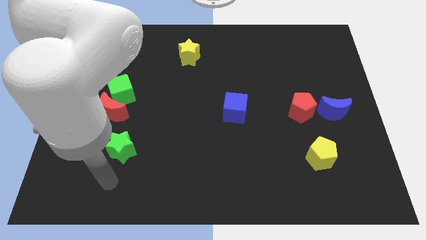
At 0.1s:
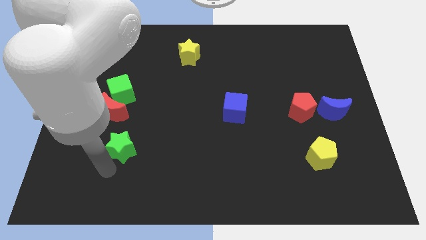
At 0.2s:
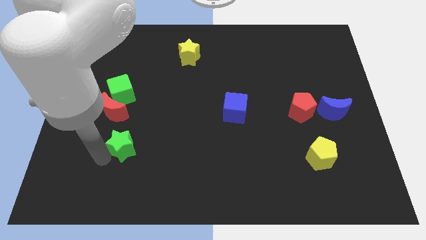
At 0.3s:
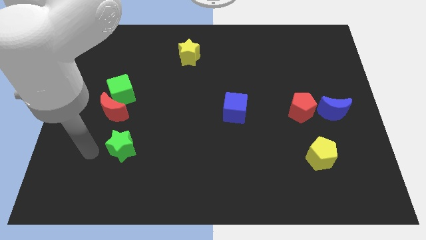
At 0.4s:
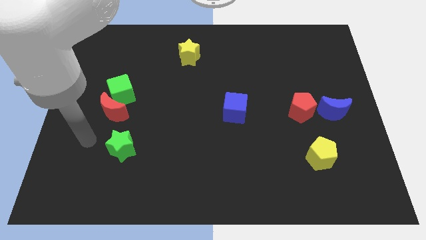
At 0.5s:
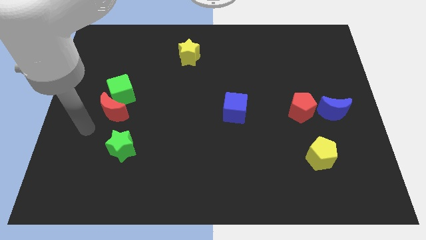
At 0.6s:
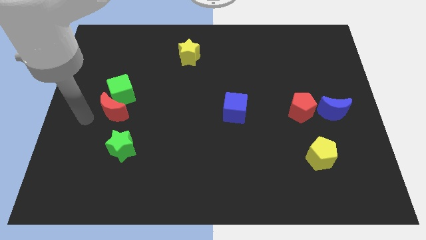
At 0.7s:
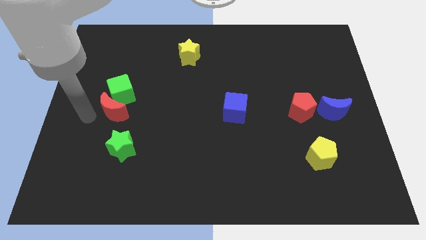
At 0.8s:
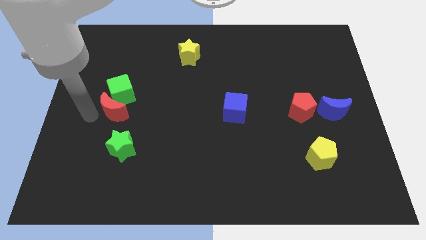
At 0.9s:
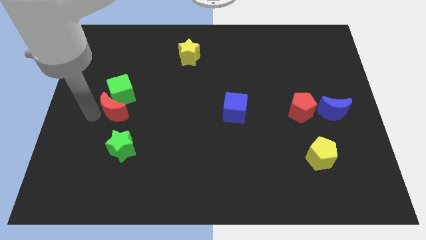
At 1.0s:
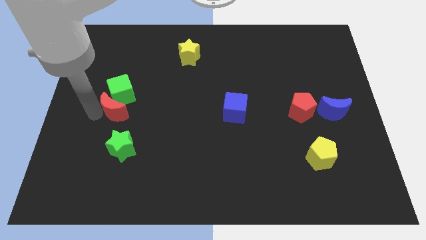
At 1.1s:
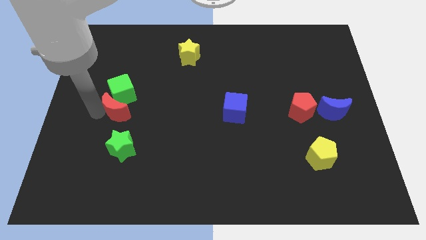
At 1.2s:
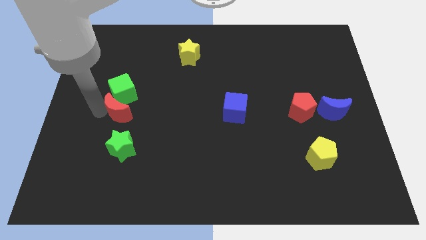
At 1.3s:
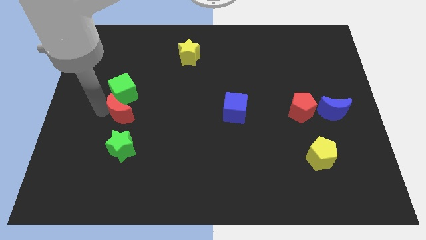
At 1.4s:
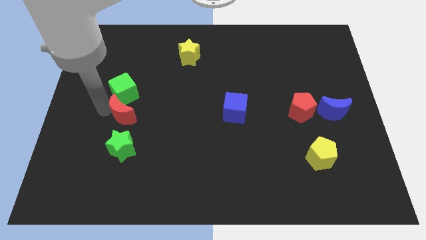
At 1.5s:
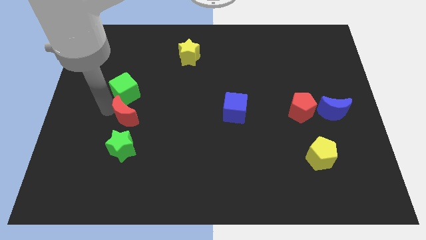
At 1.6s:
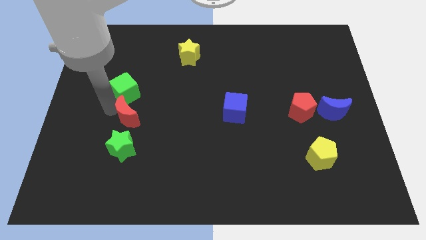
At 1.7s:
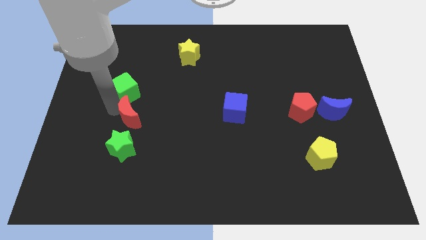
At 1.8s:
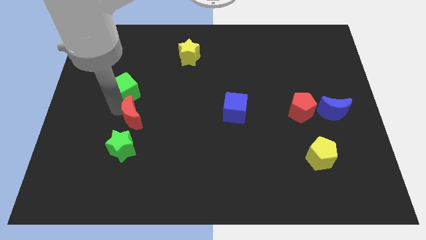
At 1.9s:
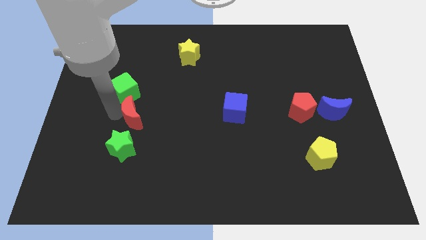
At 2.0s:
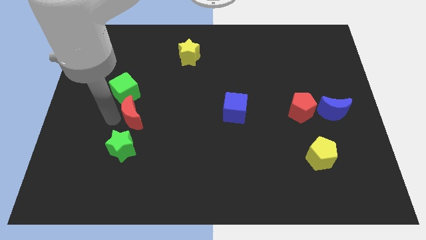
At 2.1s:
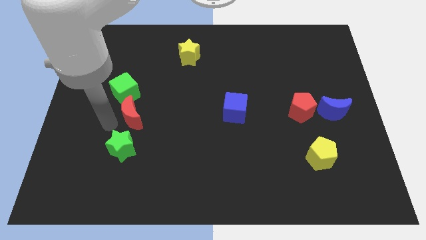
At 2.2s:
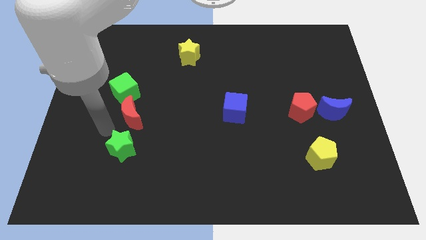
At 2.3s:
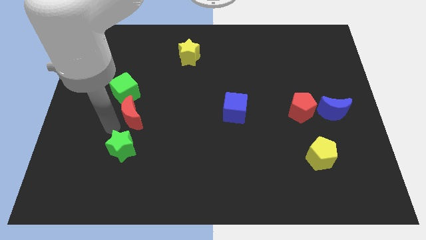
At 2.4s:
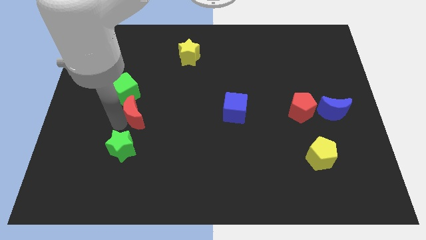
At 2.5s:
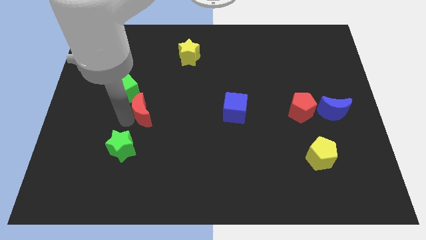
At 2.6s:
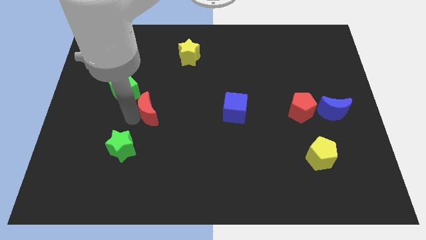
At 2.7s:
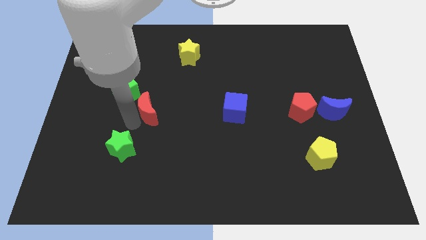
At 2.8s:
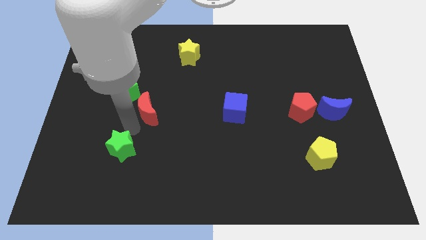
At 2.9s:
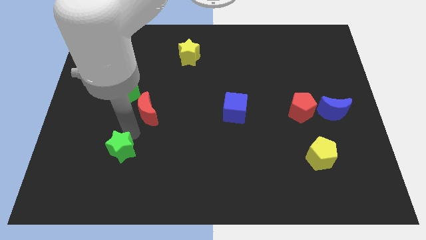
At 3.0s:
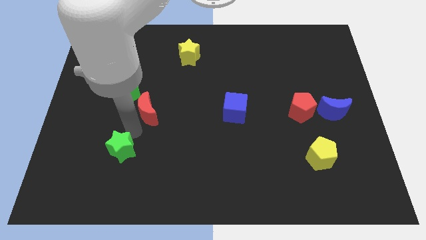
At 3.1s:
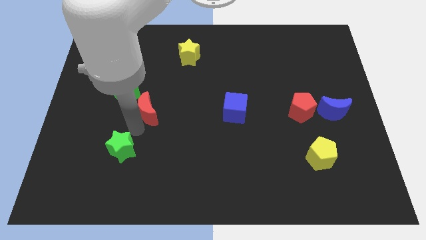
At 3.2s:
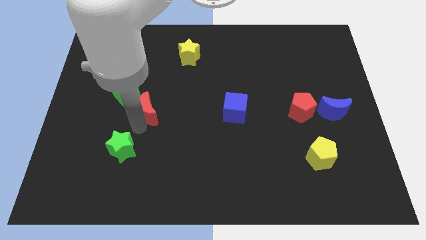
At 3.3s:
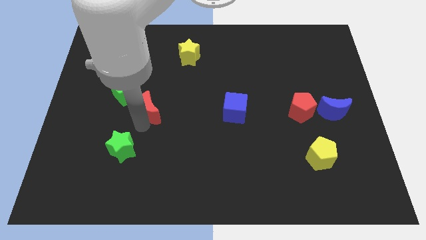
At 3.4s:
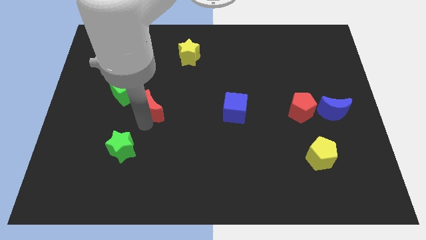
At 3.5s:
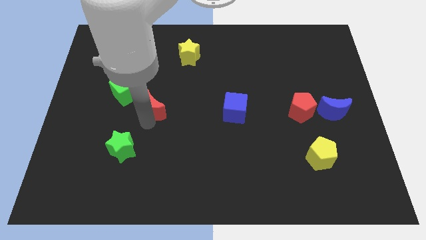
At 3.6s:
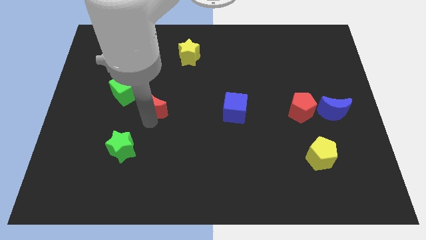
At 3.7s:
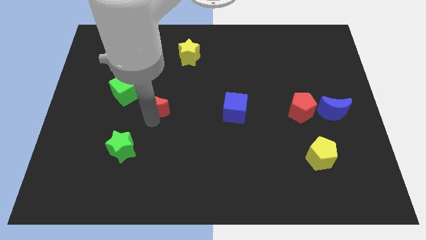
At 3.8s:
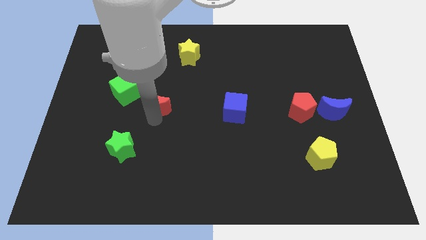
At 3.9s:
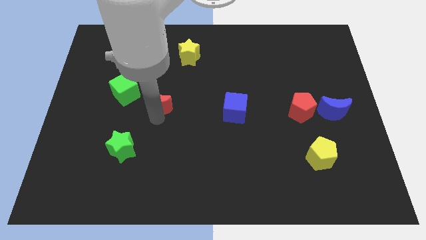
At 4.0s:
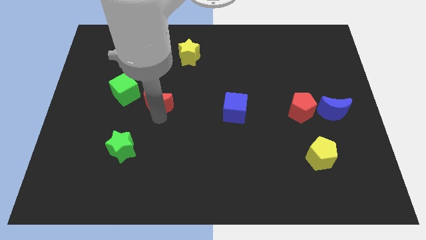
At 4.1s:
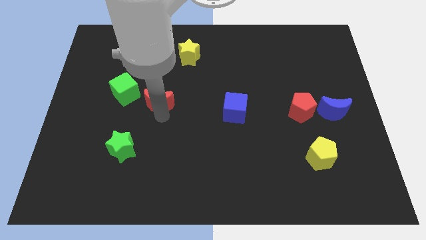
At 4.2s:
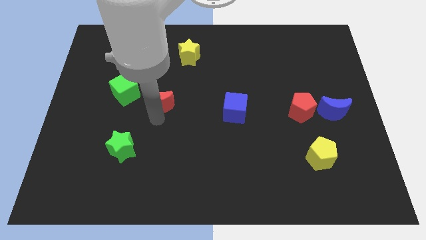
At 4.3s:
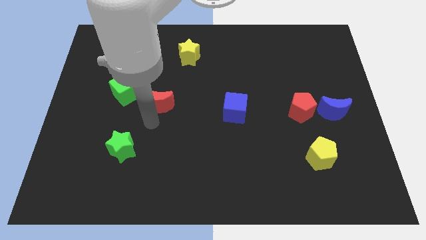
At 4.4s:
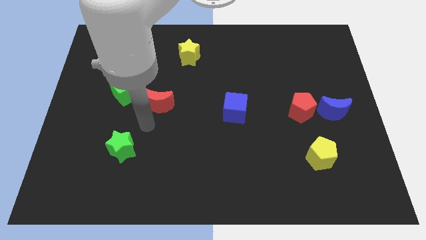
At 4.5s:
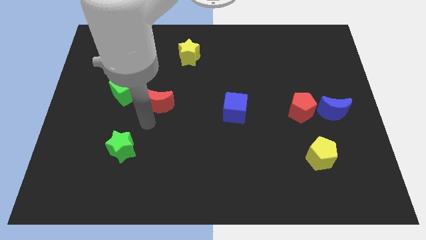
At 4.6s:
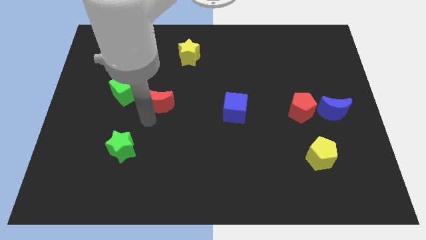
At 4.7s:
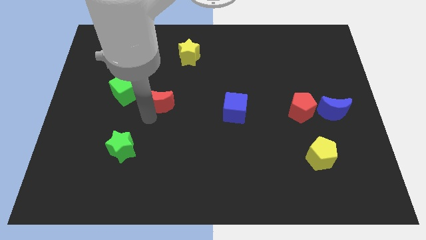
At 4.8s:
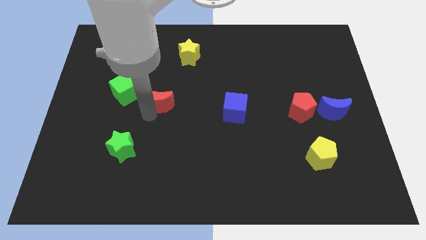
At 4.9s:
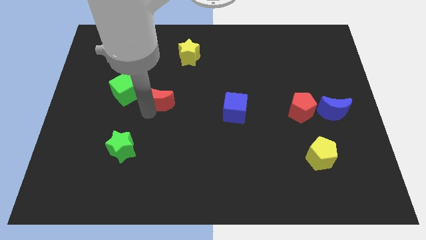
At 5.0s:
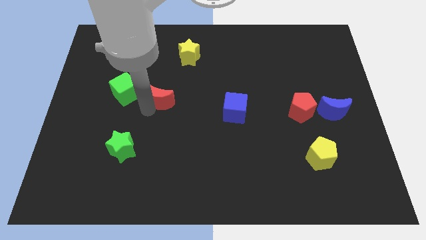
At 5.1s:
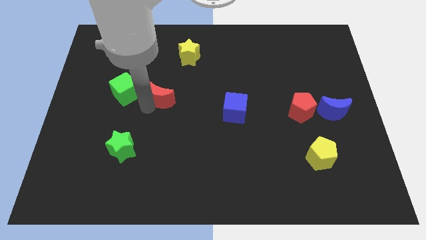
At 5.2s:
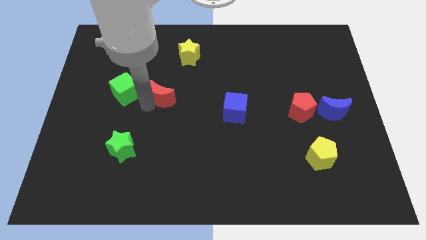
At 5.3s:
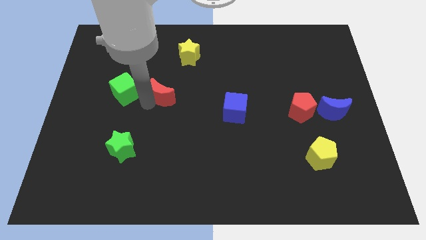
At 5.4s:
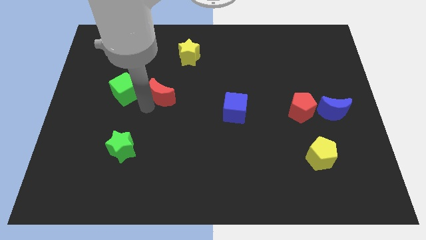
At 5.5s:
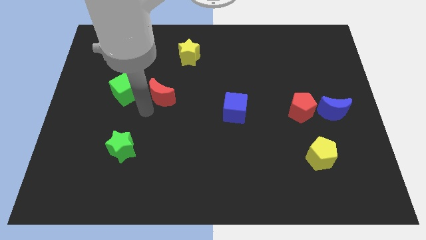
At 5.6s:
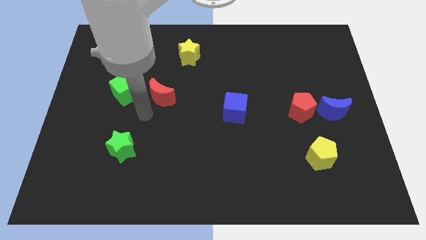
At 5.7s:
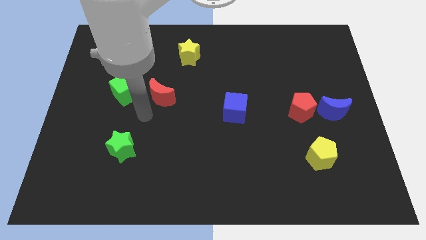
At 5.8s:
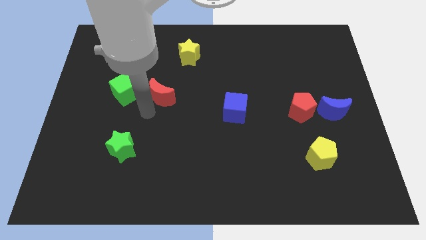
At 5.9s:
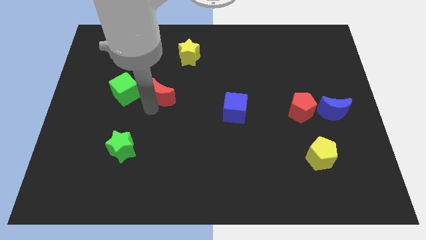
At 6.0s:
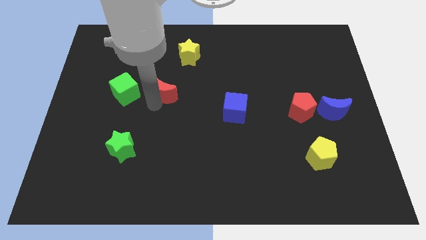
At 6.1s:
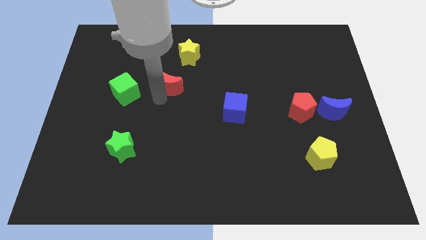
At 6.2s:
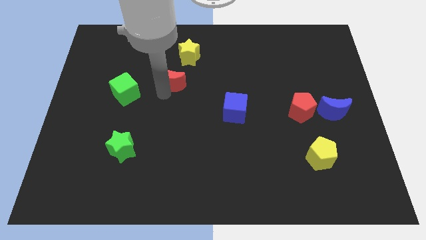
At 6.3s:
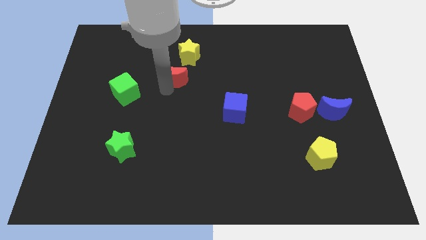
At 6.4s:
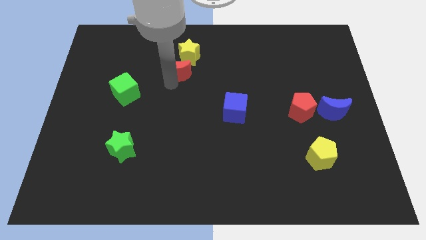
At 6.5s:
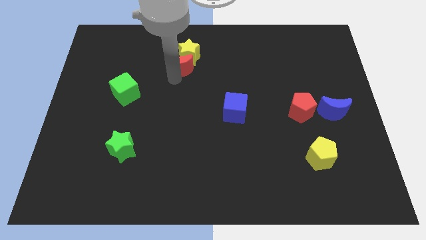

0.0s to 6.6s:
push the red moon close to the yellow star

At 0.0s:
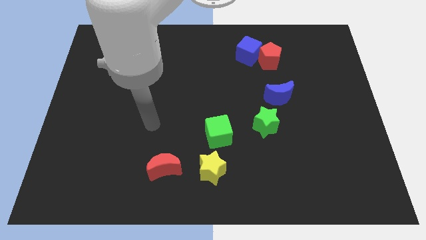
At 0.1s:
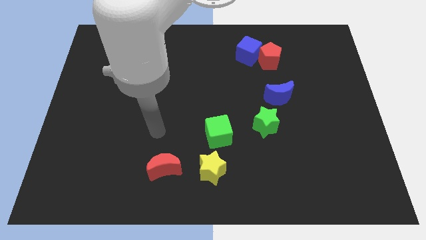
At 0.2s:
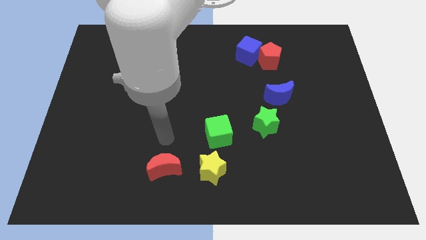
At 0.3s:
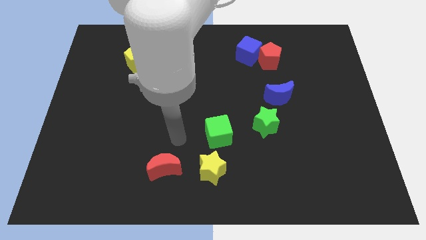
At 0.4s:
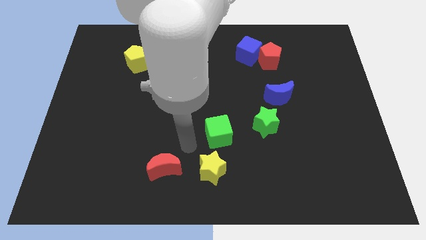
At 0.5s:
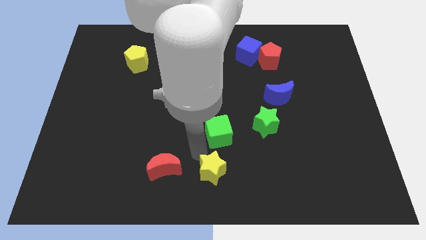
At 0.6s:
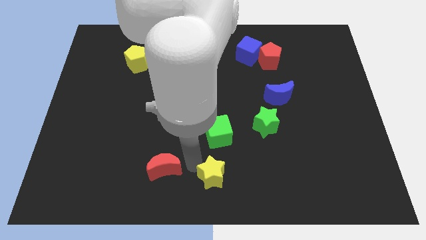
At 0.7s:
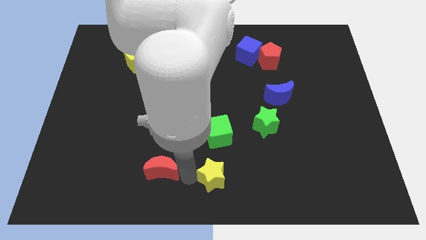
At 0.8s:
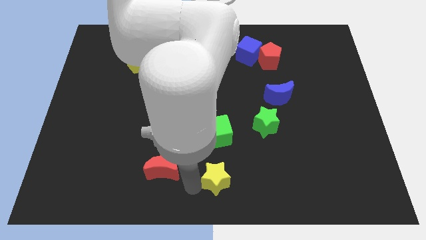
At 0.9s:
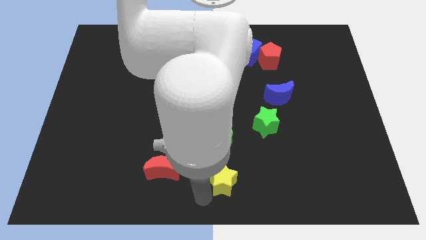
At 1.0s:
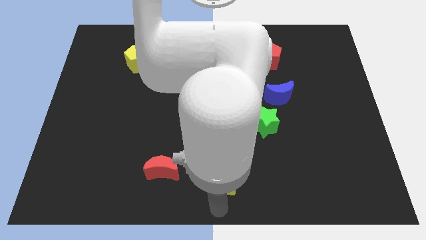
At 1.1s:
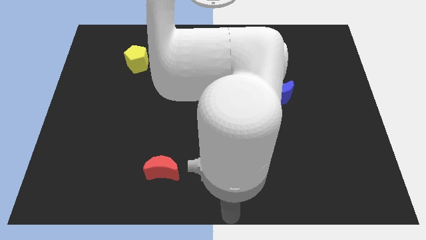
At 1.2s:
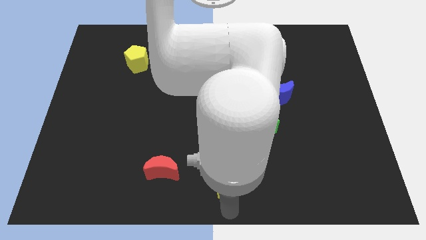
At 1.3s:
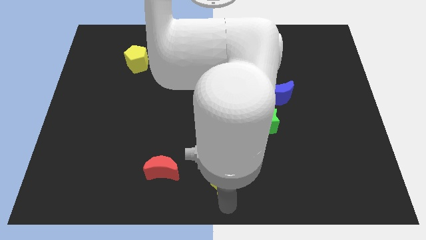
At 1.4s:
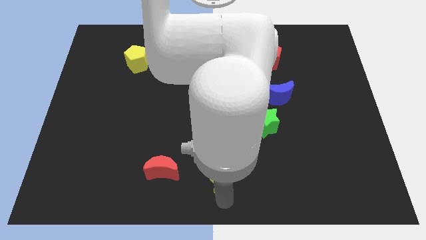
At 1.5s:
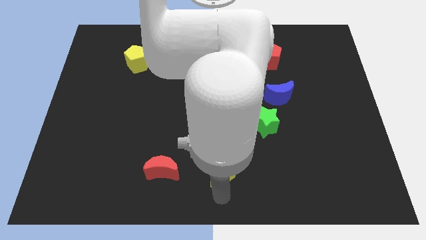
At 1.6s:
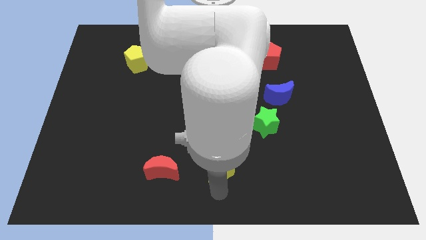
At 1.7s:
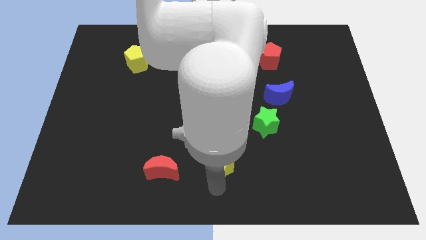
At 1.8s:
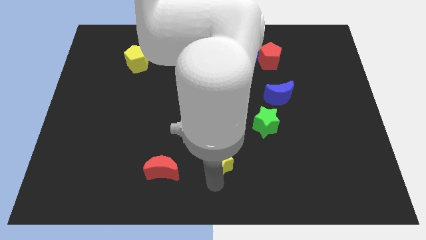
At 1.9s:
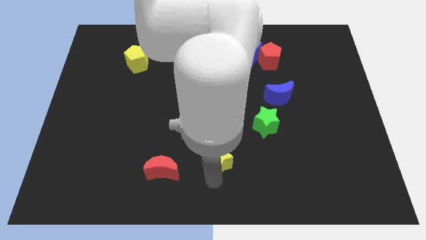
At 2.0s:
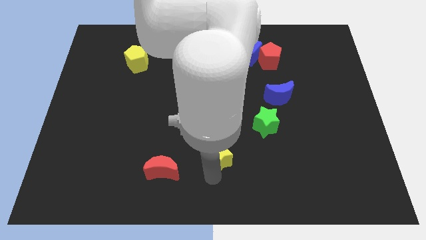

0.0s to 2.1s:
move the yellow star towards the green cube
